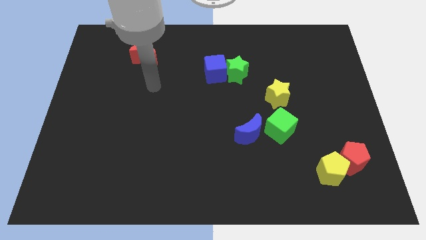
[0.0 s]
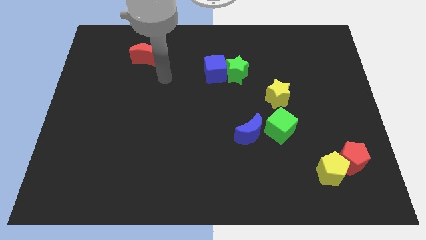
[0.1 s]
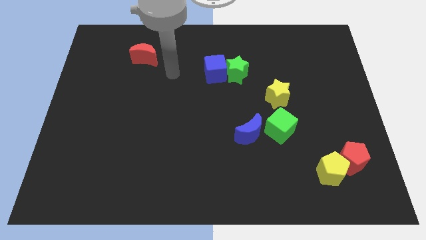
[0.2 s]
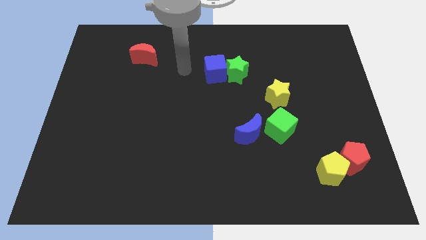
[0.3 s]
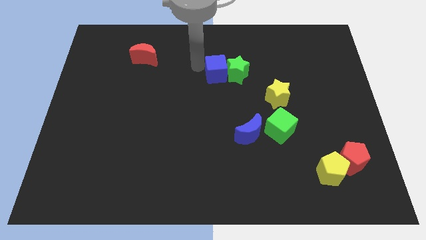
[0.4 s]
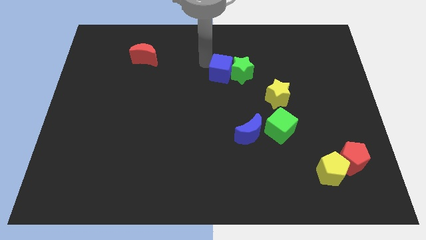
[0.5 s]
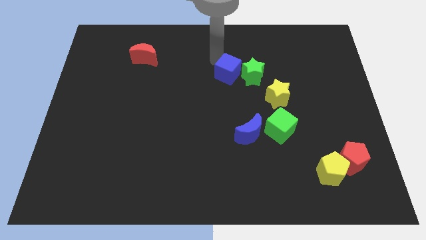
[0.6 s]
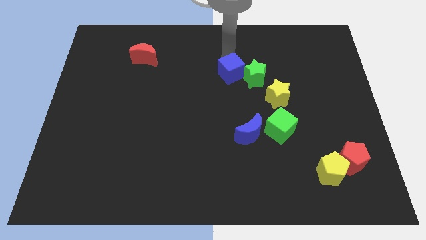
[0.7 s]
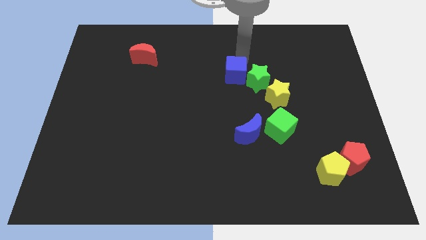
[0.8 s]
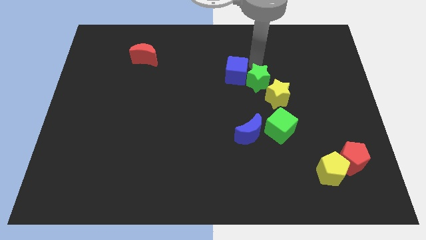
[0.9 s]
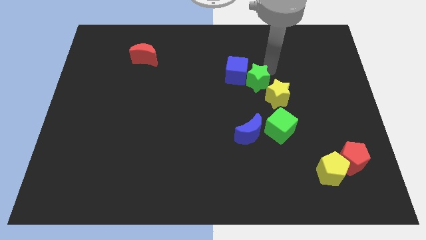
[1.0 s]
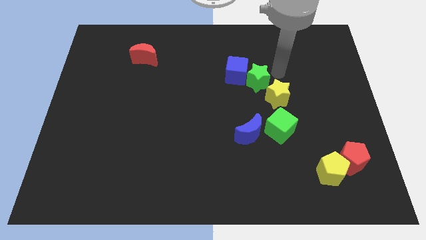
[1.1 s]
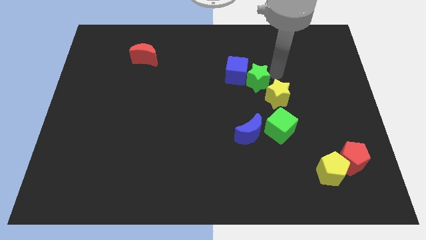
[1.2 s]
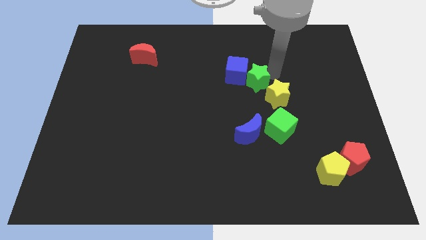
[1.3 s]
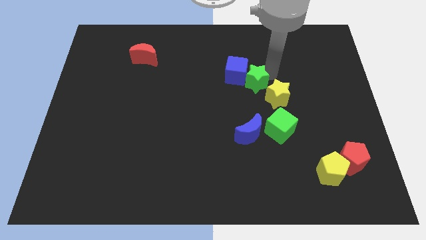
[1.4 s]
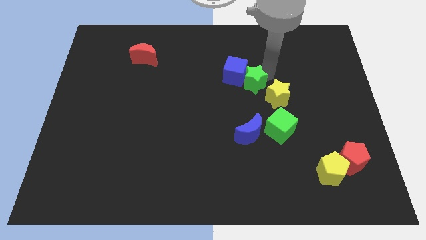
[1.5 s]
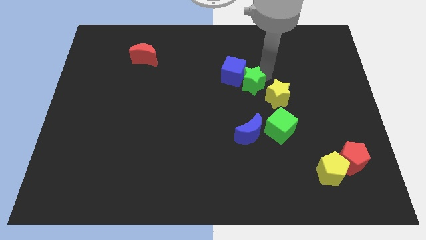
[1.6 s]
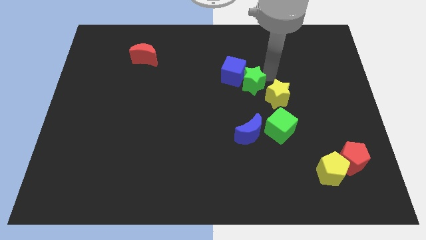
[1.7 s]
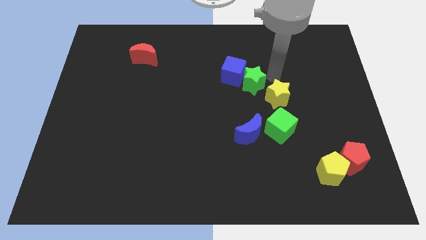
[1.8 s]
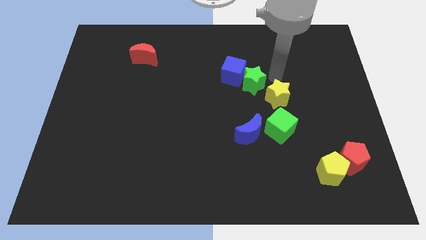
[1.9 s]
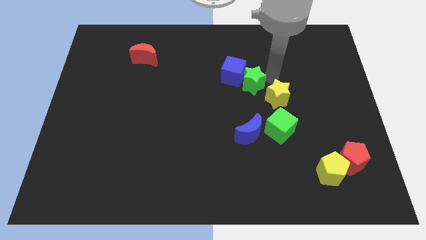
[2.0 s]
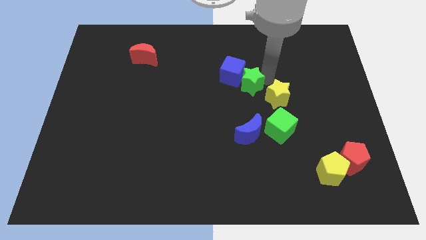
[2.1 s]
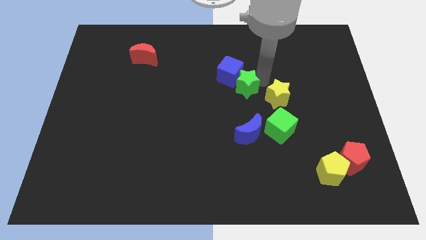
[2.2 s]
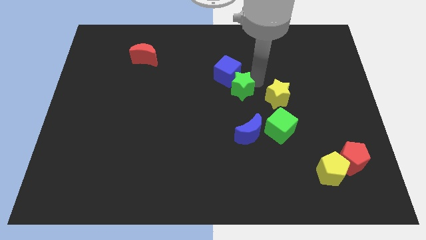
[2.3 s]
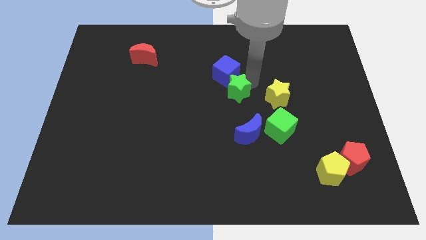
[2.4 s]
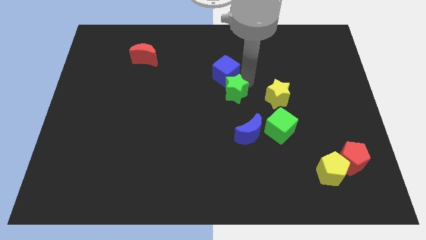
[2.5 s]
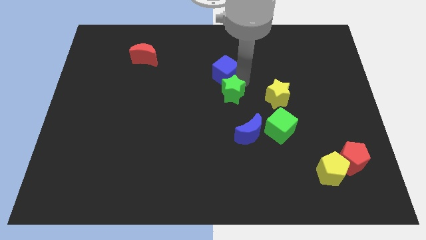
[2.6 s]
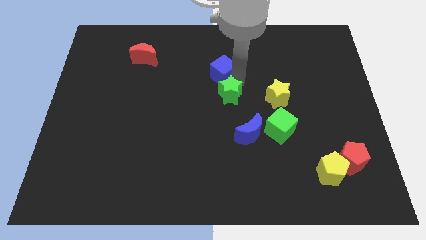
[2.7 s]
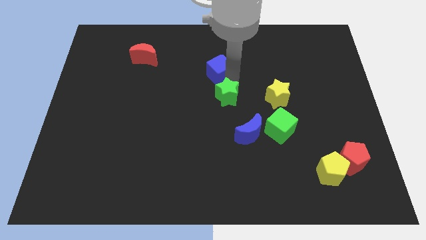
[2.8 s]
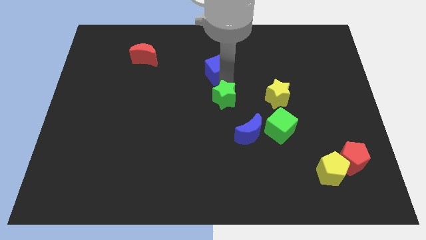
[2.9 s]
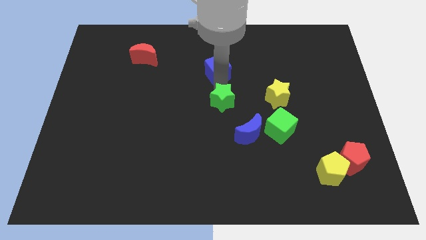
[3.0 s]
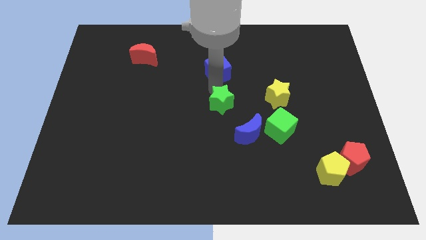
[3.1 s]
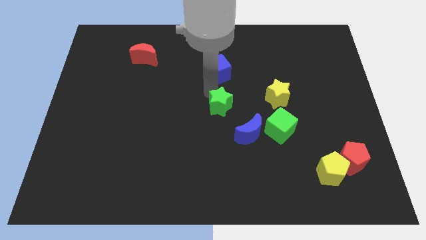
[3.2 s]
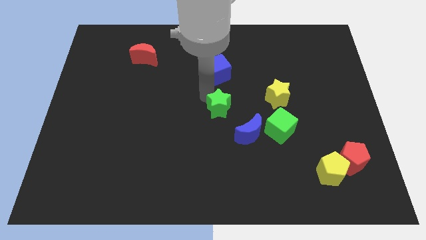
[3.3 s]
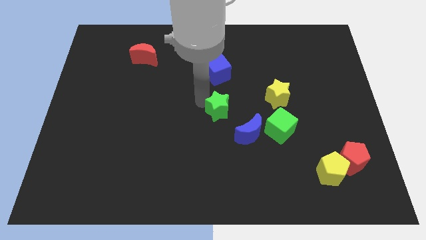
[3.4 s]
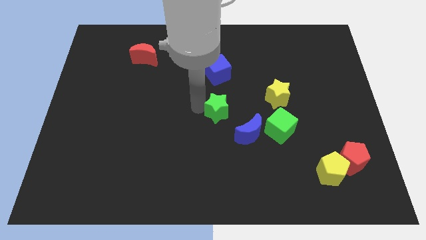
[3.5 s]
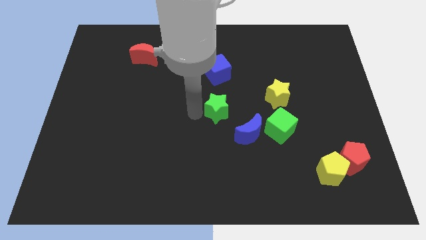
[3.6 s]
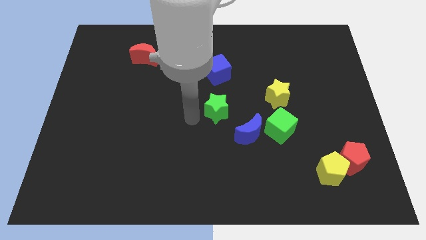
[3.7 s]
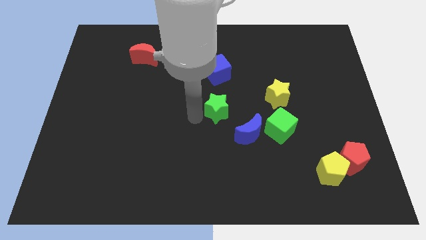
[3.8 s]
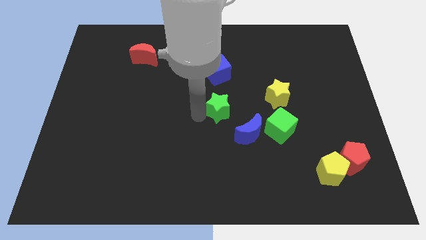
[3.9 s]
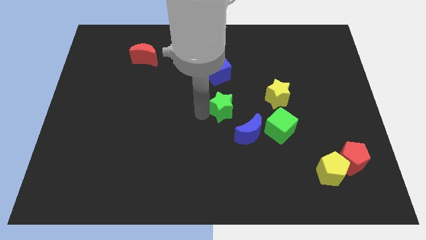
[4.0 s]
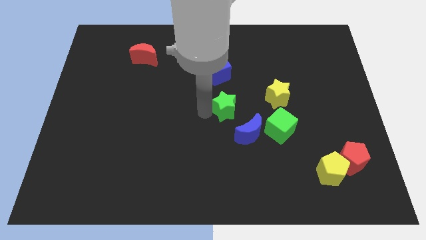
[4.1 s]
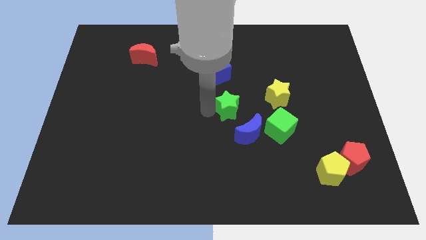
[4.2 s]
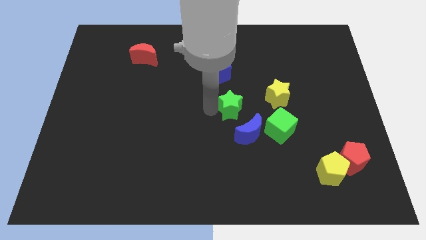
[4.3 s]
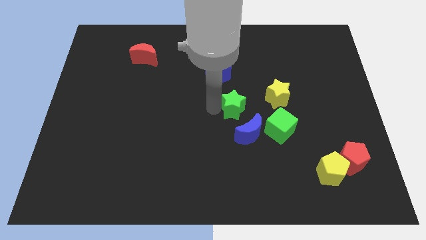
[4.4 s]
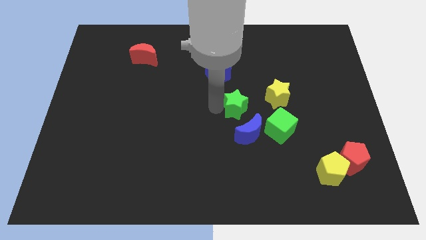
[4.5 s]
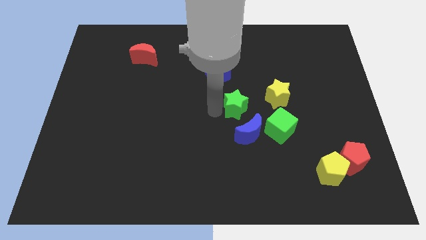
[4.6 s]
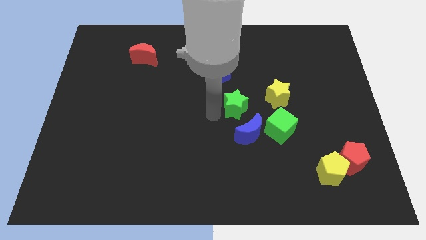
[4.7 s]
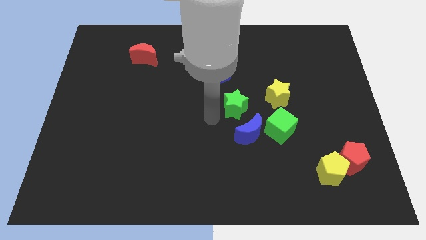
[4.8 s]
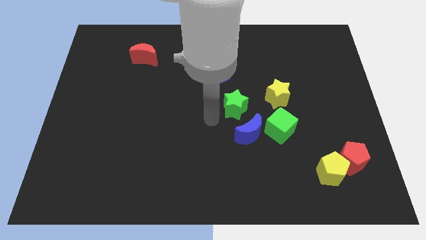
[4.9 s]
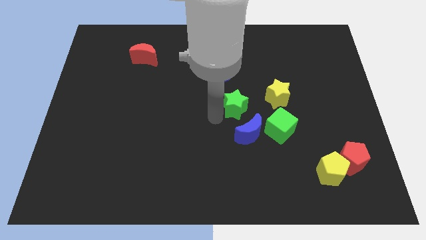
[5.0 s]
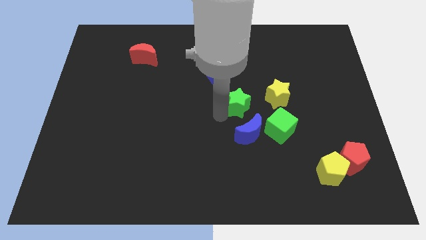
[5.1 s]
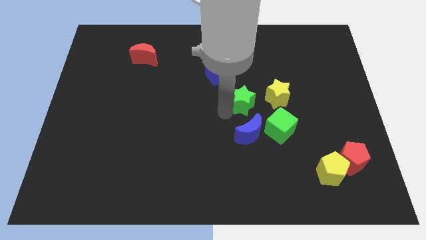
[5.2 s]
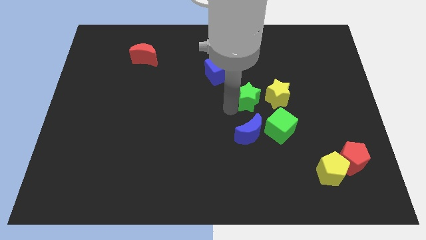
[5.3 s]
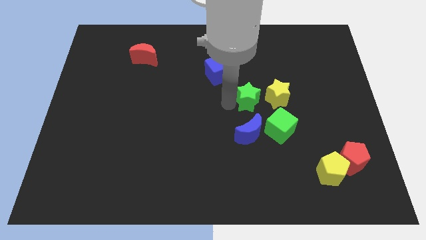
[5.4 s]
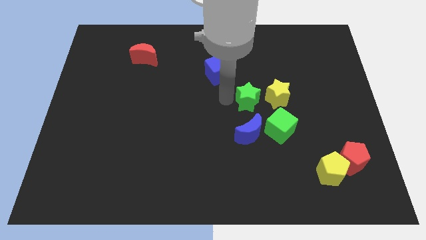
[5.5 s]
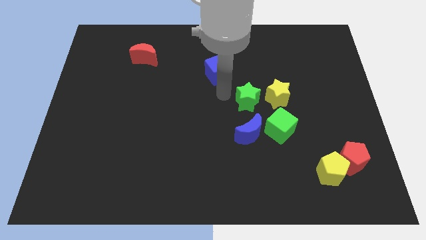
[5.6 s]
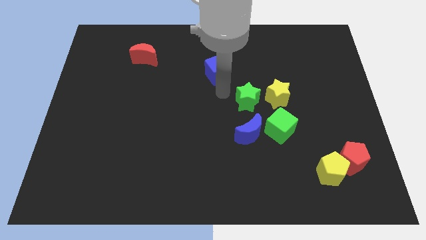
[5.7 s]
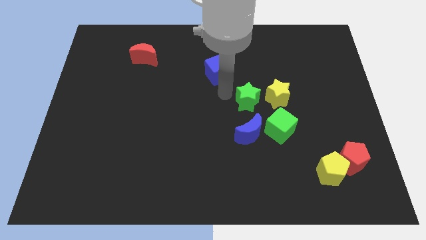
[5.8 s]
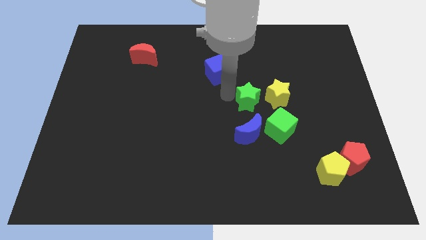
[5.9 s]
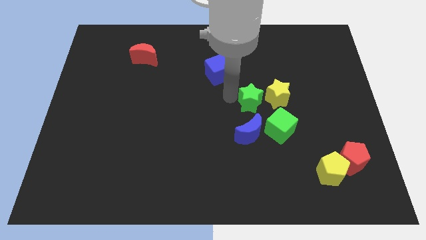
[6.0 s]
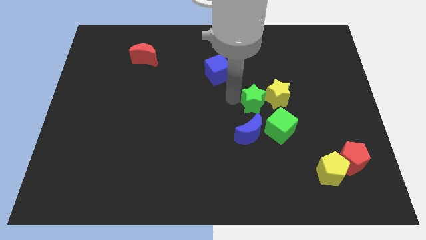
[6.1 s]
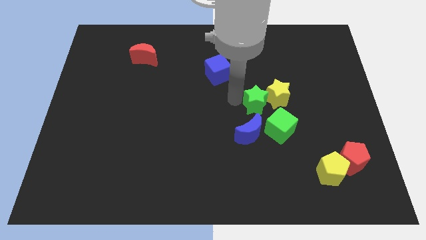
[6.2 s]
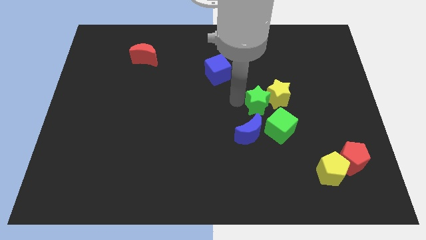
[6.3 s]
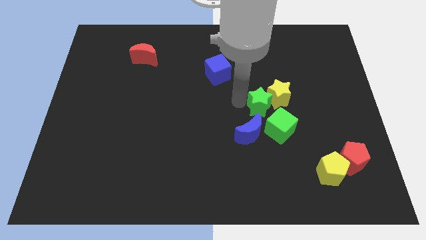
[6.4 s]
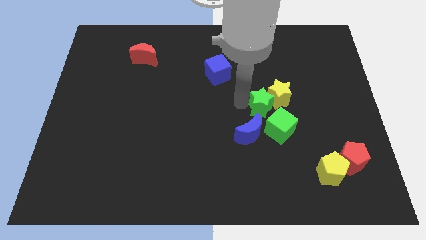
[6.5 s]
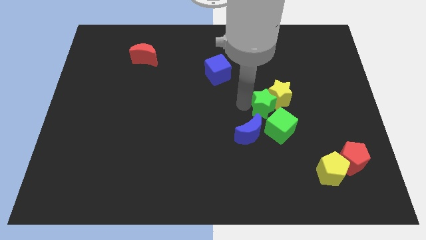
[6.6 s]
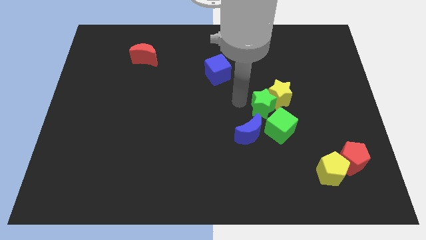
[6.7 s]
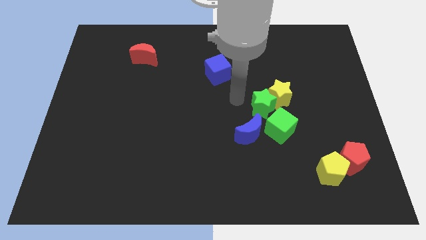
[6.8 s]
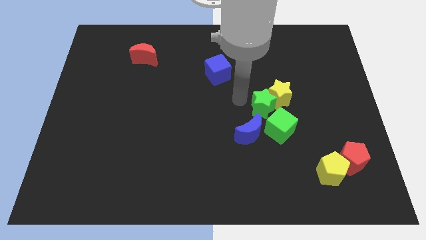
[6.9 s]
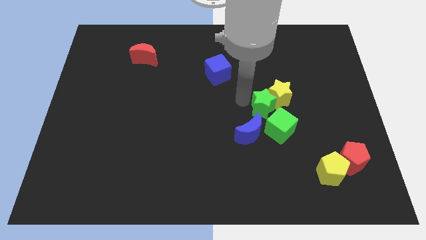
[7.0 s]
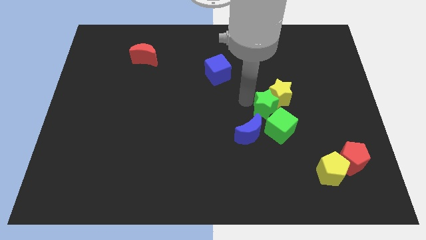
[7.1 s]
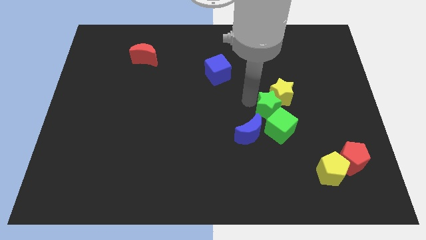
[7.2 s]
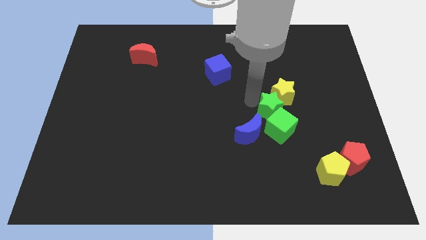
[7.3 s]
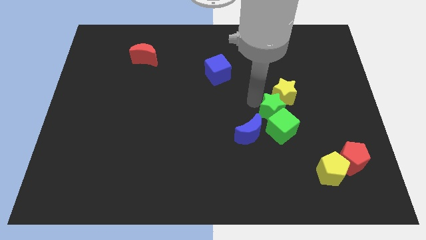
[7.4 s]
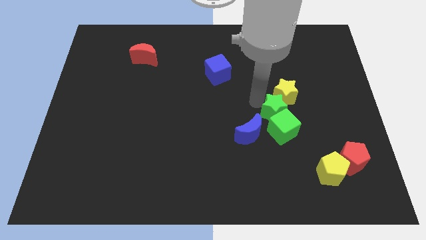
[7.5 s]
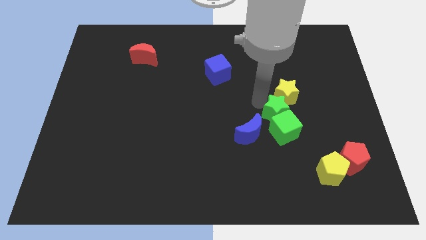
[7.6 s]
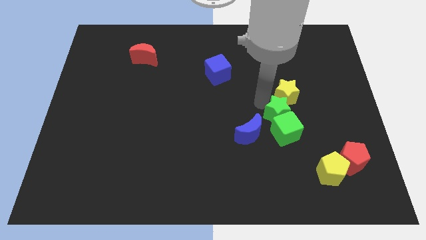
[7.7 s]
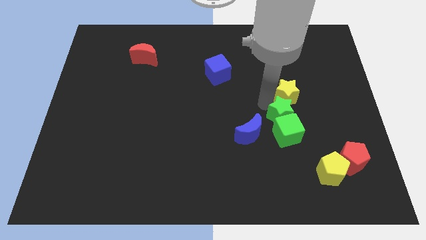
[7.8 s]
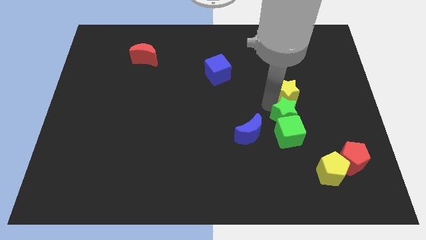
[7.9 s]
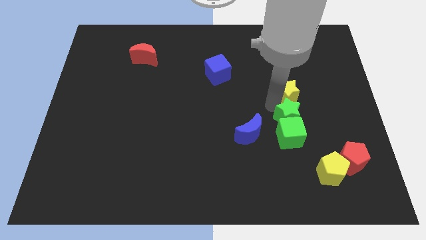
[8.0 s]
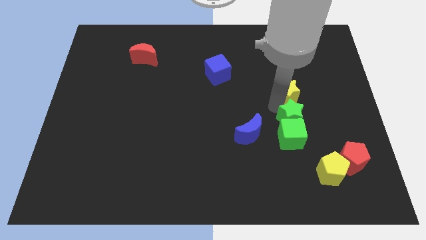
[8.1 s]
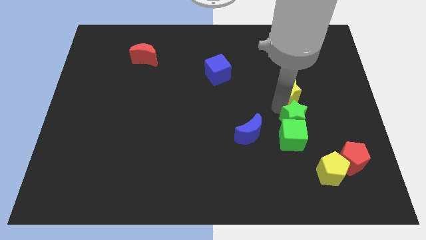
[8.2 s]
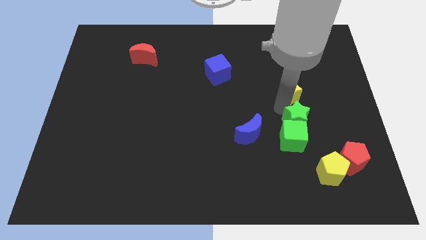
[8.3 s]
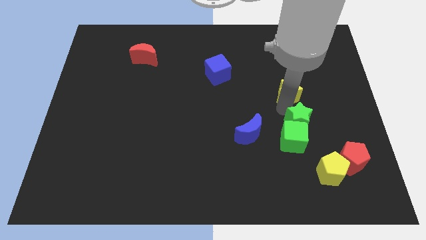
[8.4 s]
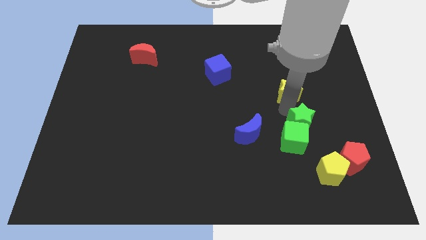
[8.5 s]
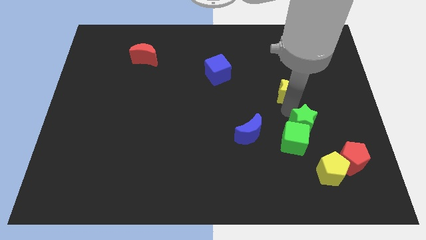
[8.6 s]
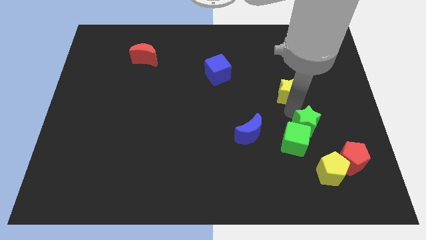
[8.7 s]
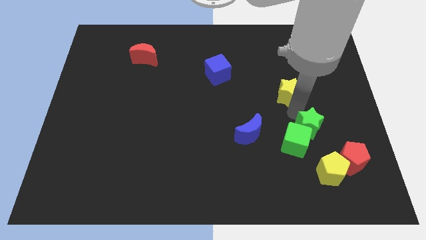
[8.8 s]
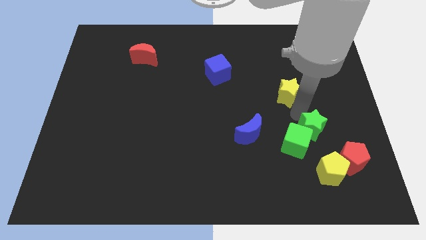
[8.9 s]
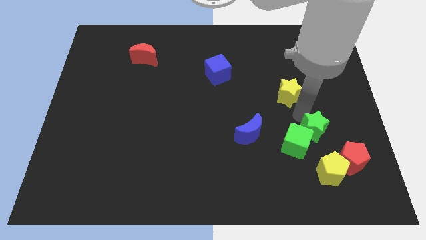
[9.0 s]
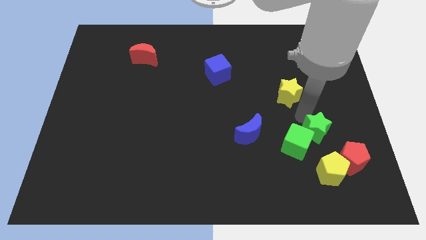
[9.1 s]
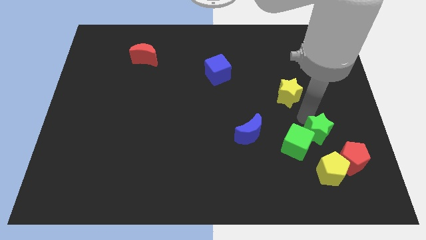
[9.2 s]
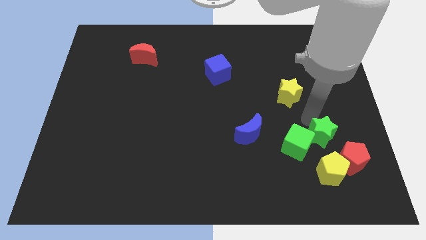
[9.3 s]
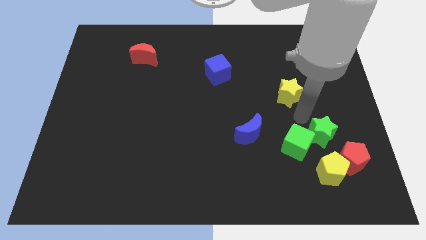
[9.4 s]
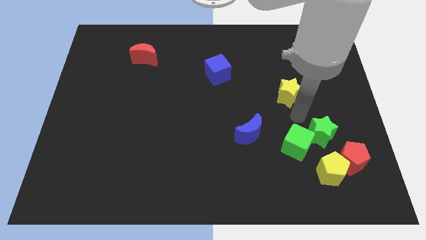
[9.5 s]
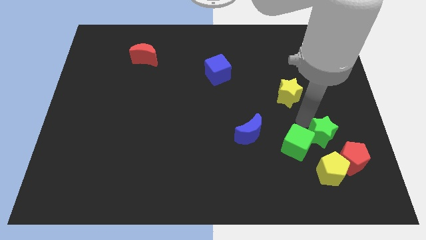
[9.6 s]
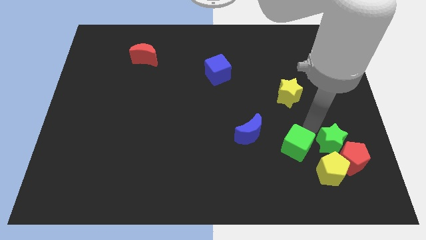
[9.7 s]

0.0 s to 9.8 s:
move the green star to the red pentagon
